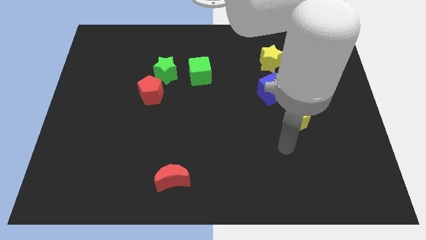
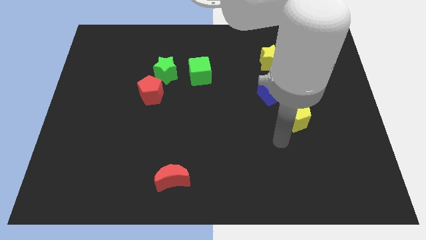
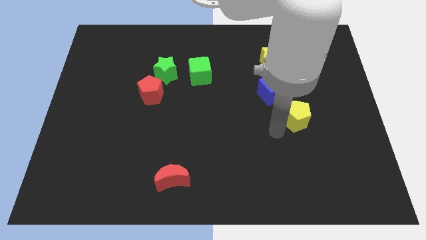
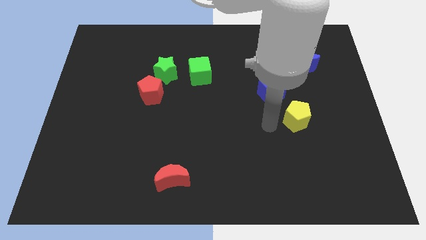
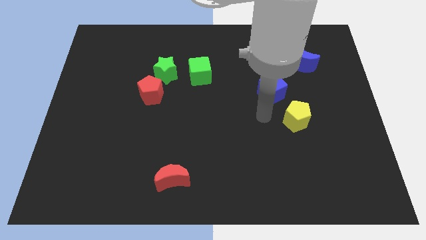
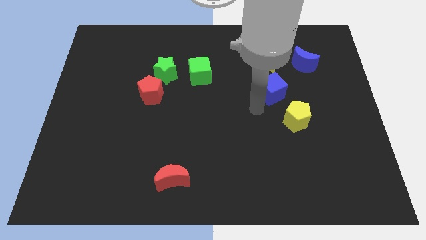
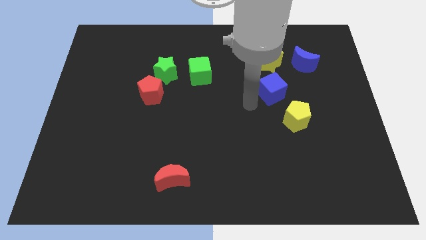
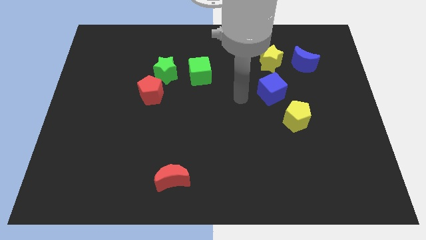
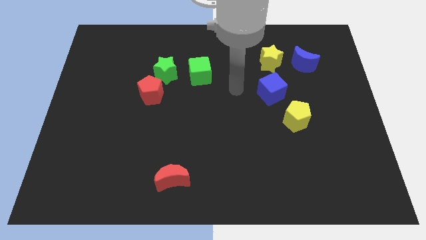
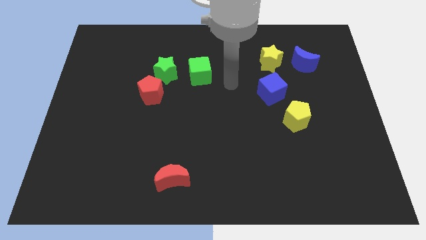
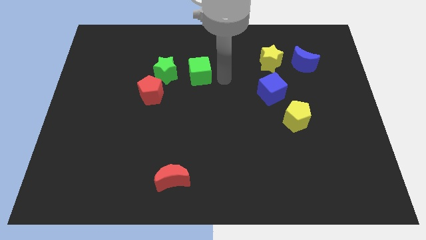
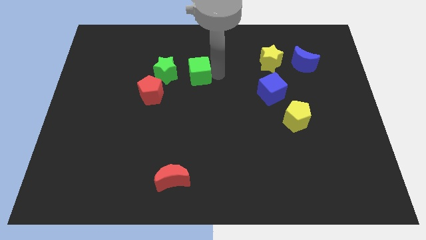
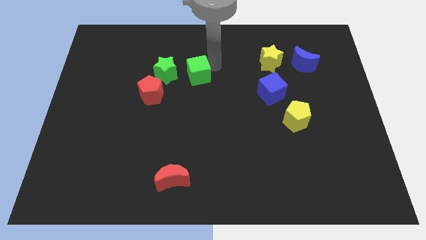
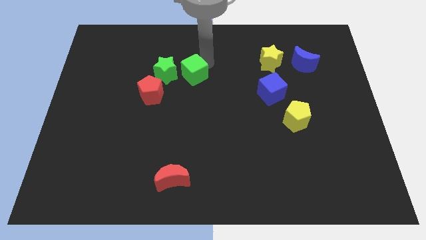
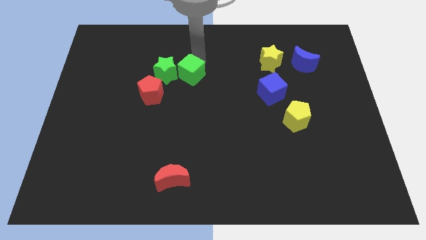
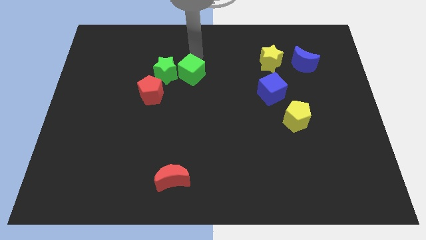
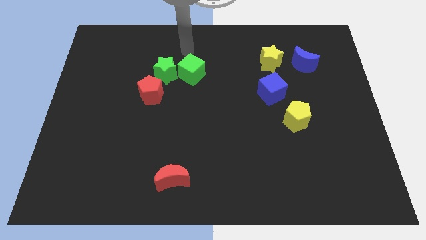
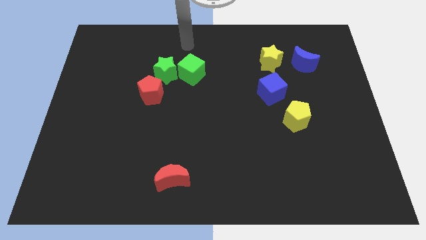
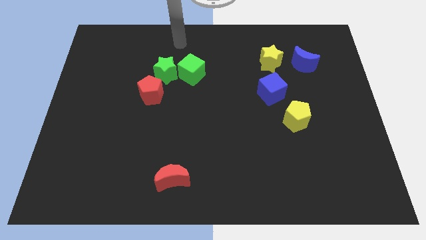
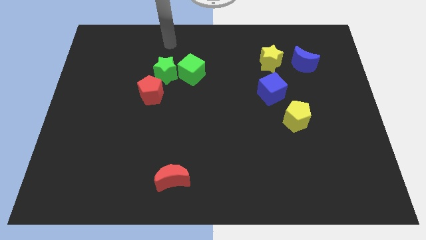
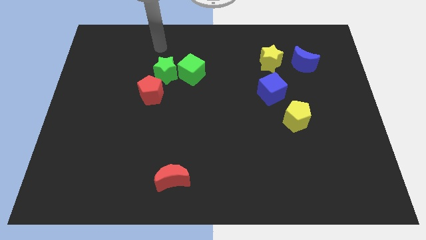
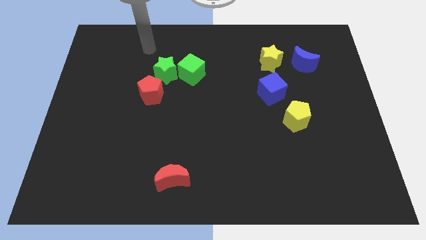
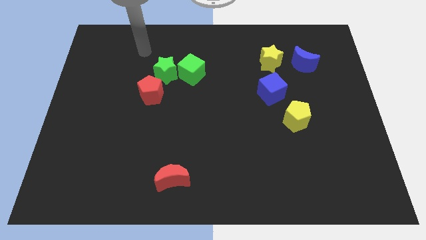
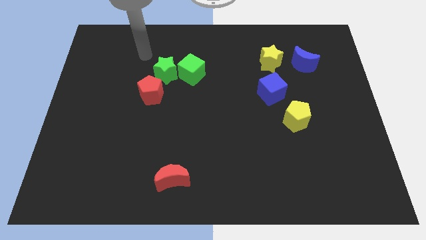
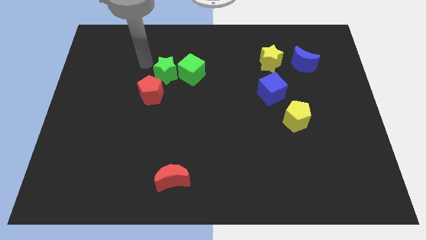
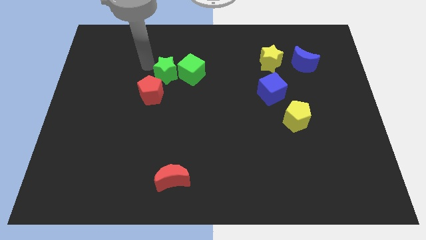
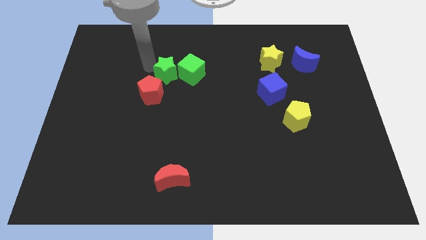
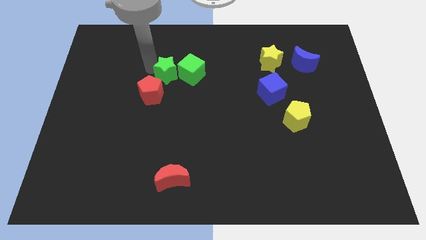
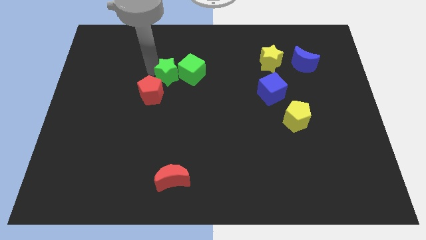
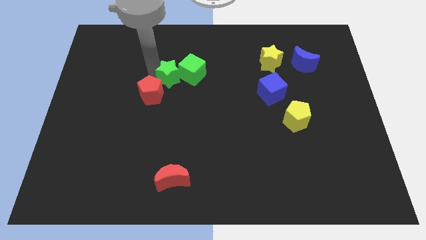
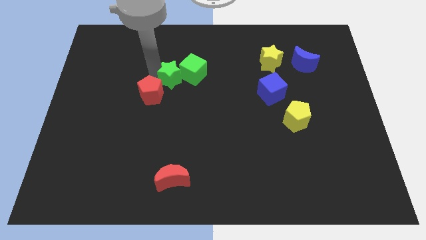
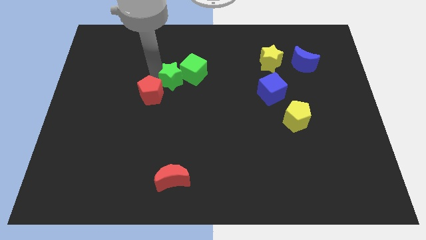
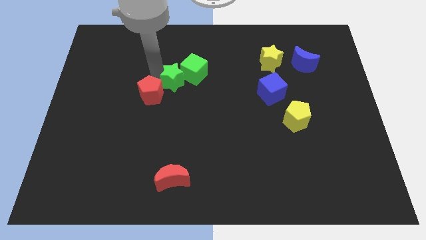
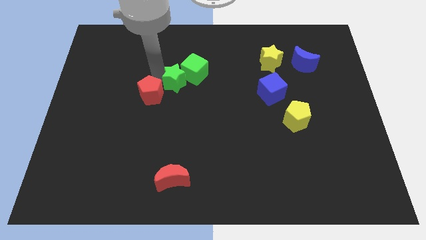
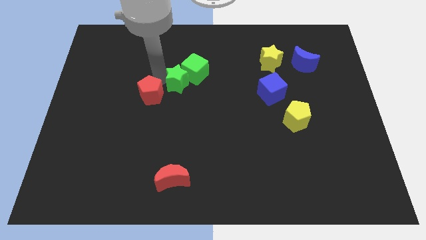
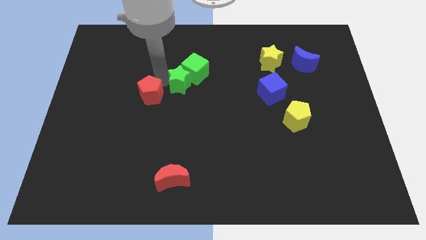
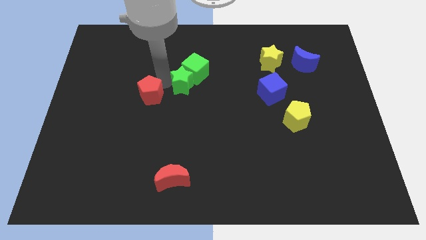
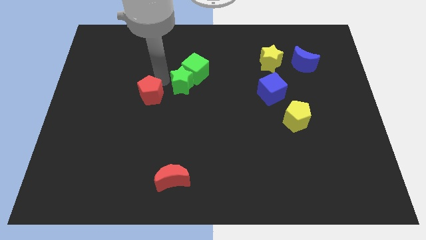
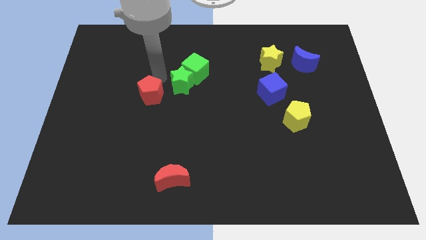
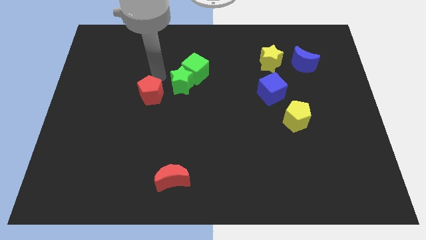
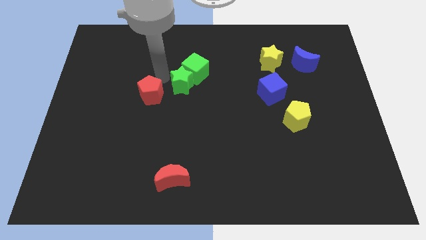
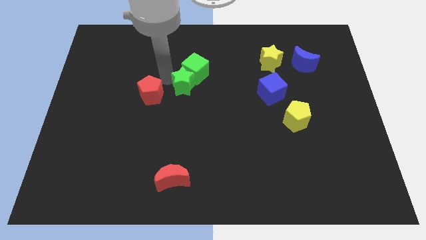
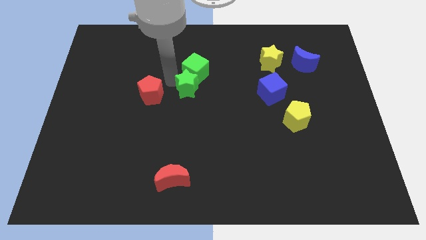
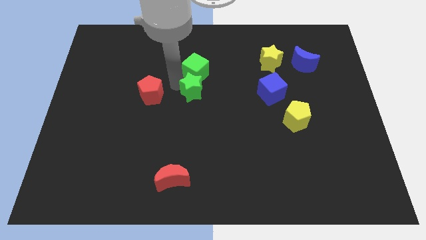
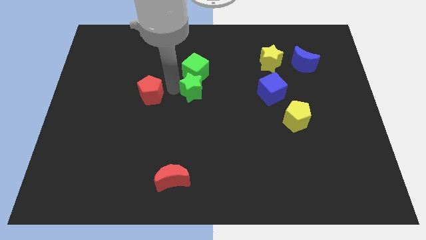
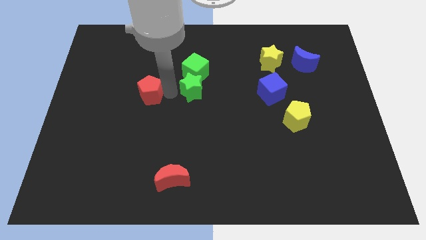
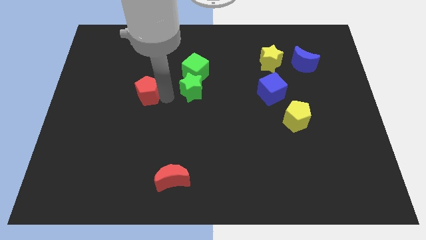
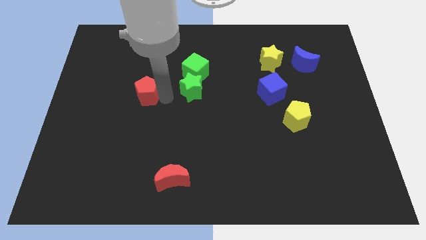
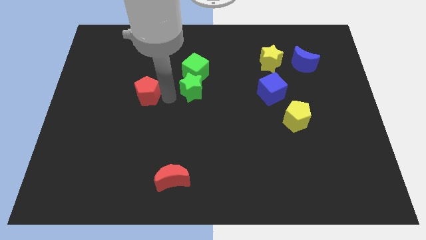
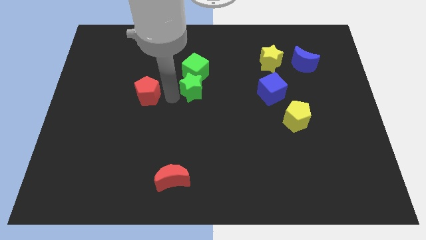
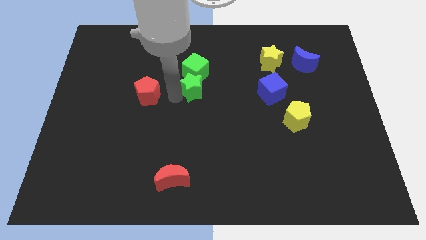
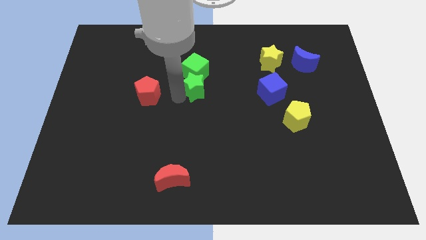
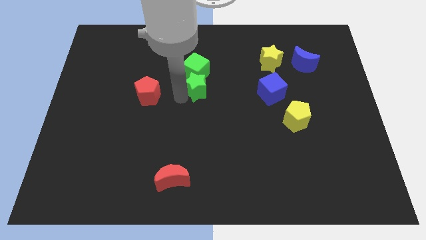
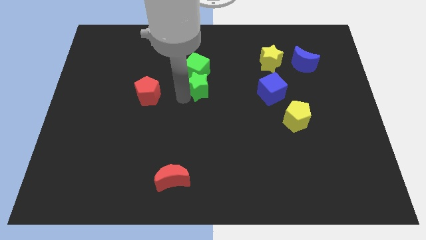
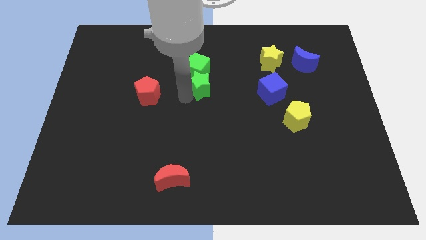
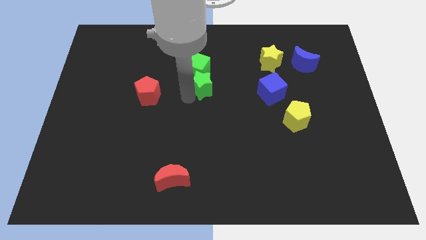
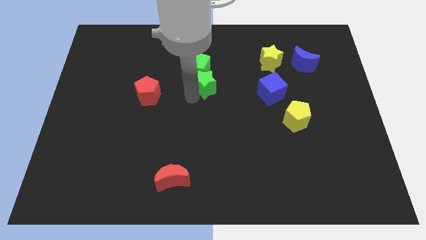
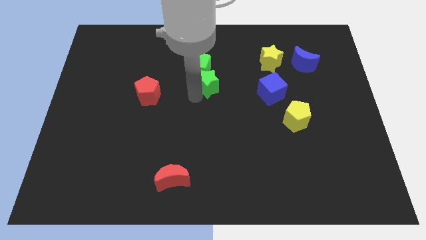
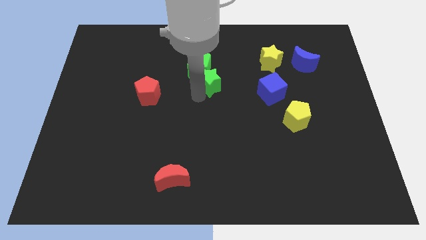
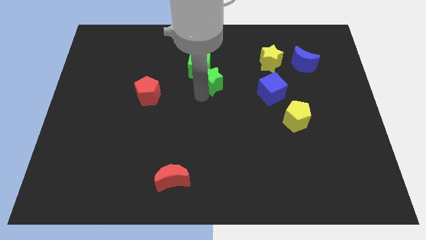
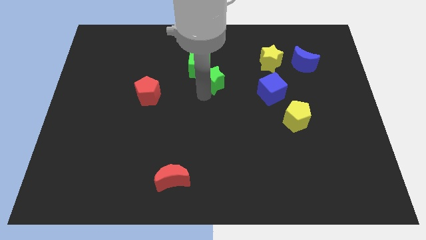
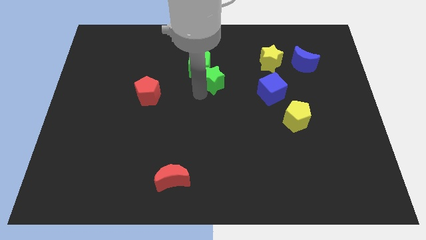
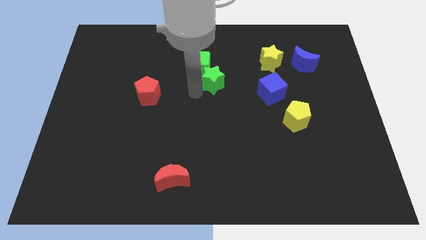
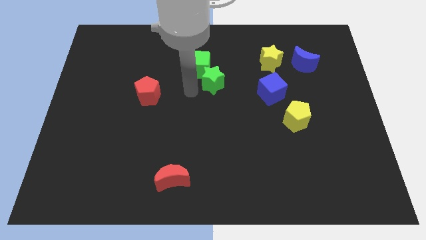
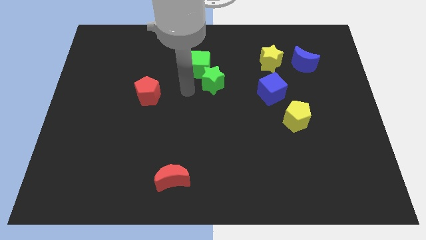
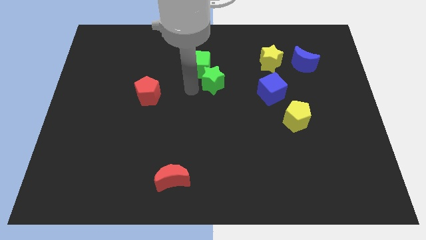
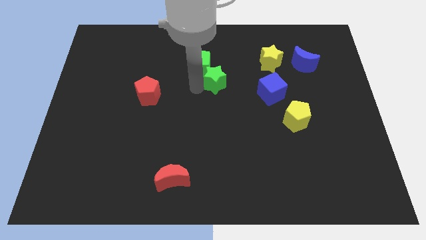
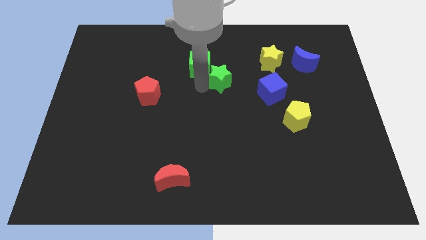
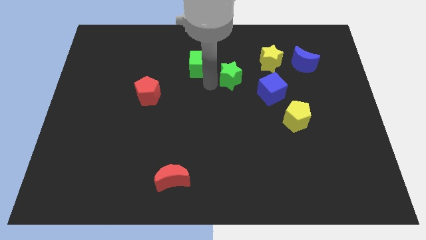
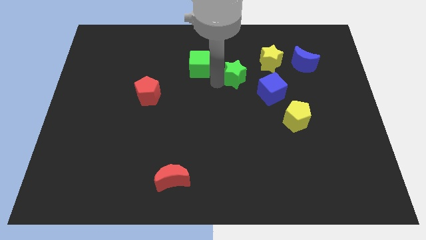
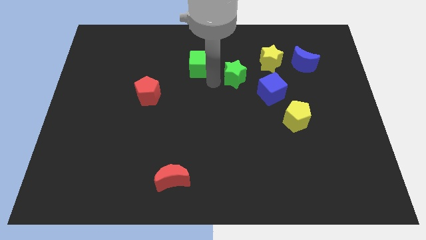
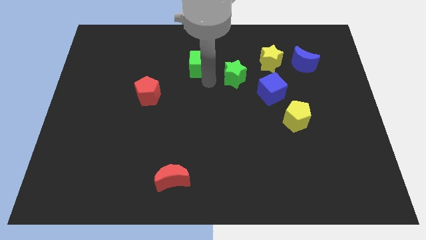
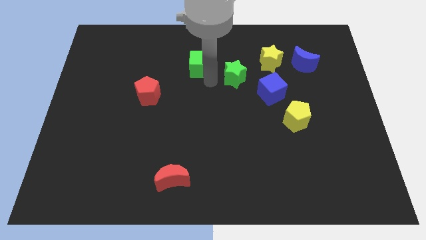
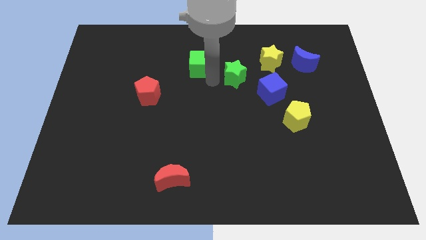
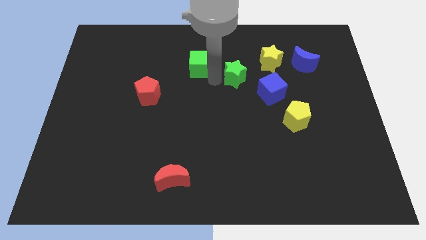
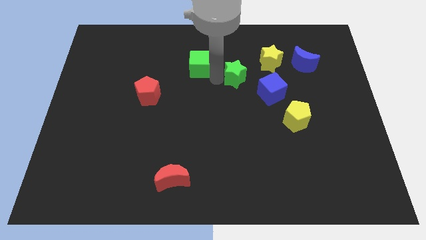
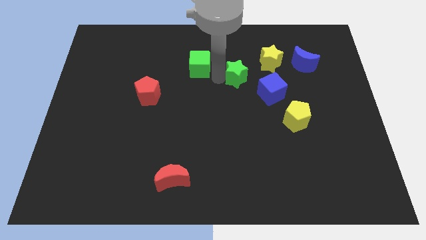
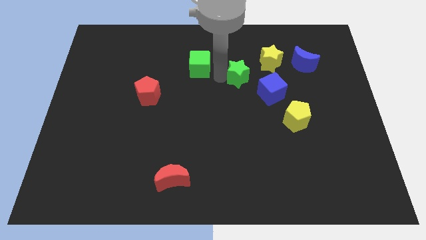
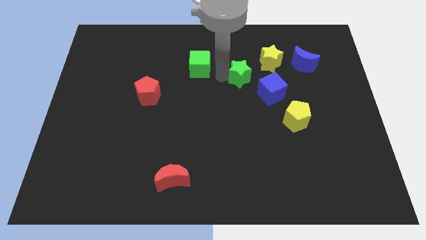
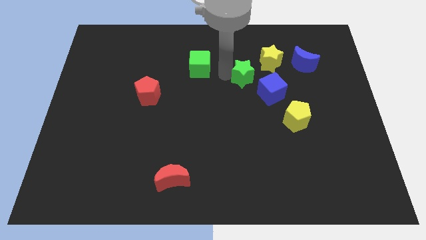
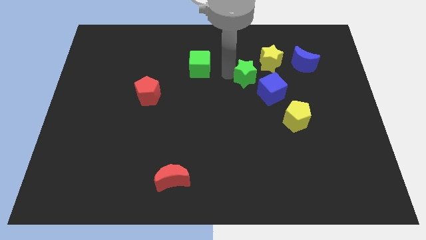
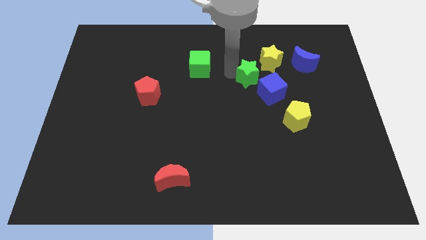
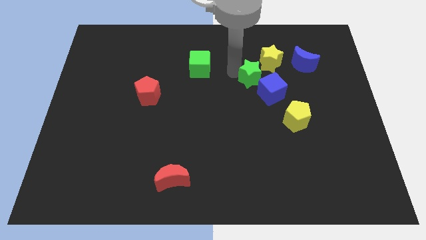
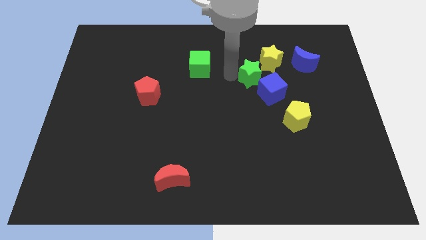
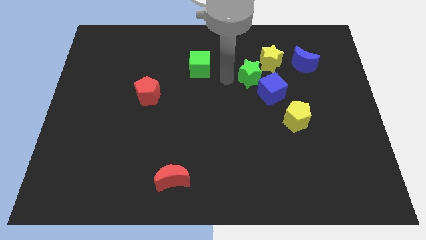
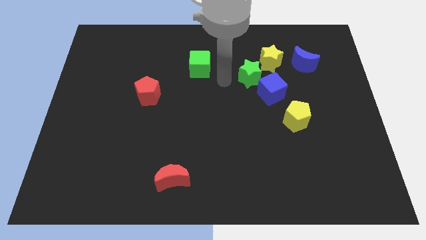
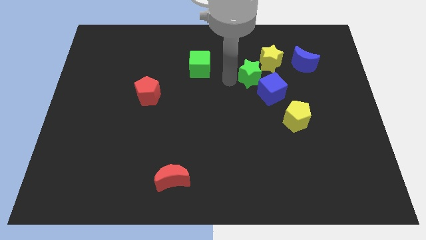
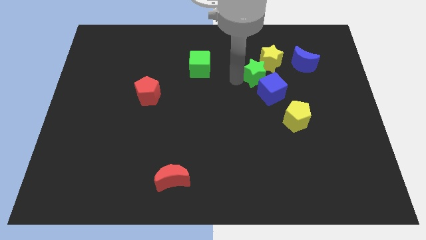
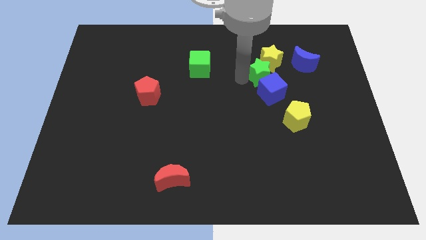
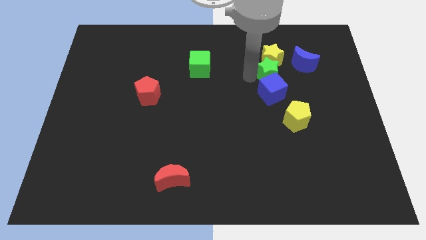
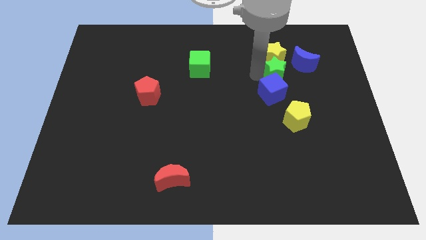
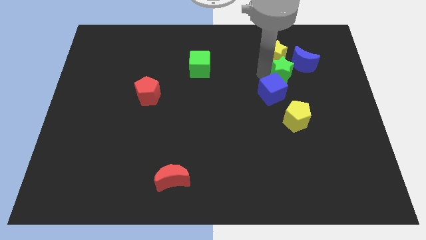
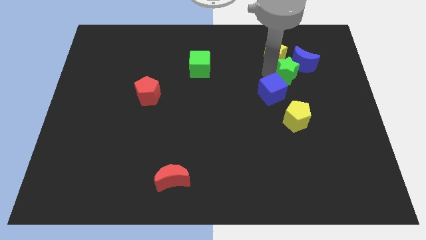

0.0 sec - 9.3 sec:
push the green star close to the blue moon
